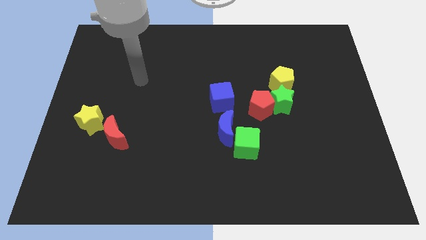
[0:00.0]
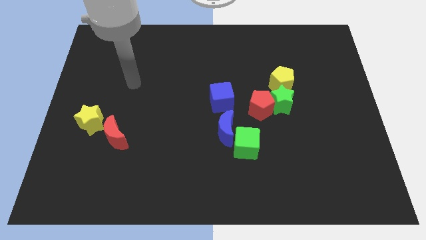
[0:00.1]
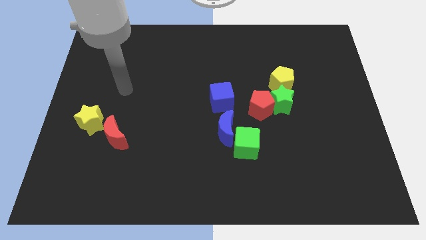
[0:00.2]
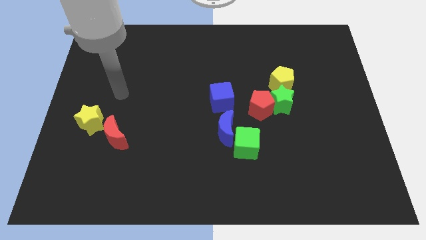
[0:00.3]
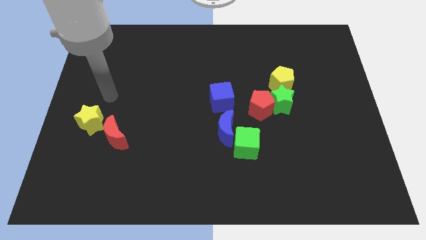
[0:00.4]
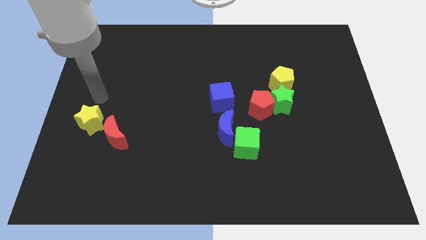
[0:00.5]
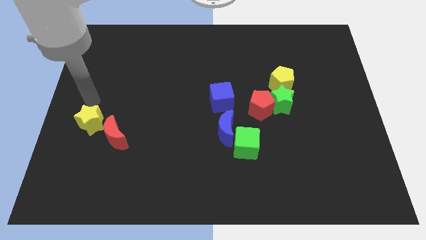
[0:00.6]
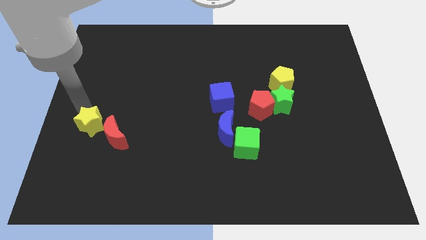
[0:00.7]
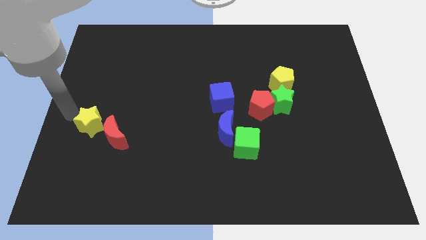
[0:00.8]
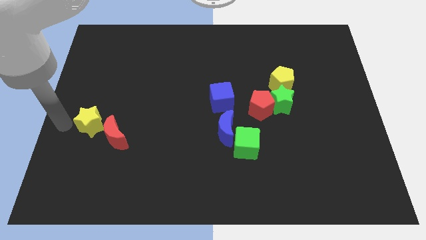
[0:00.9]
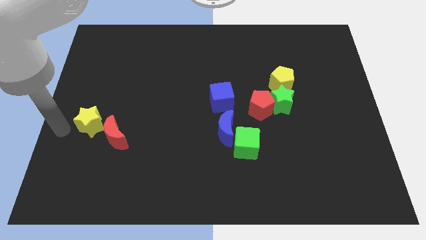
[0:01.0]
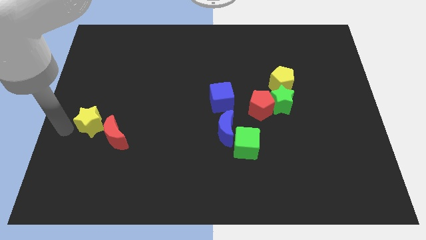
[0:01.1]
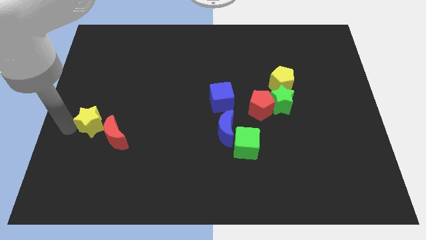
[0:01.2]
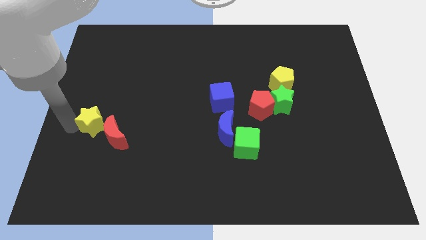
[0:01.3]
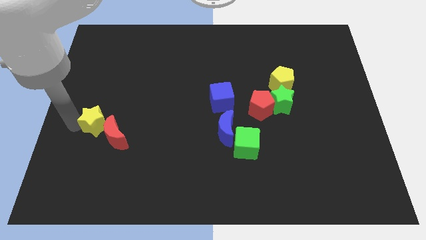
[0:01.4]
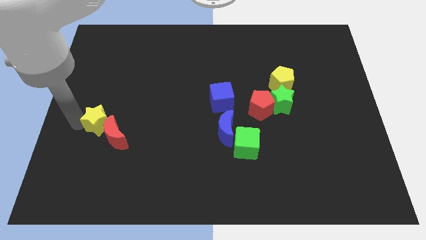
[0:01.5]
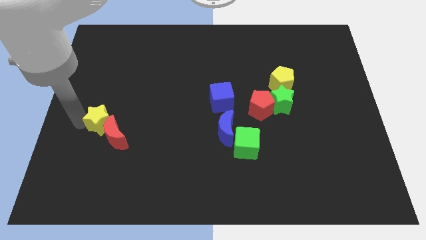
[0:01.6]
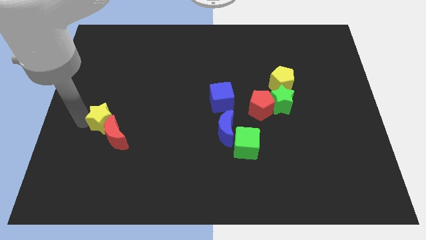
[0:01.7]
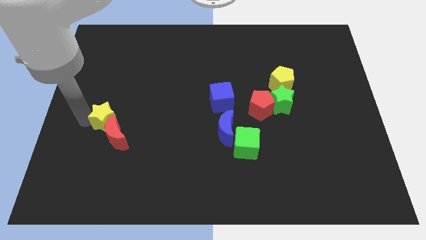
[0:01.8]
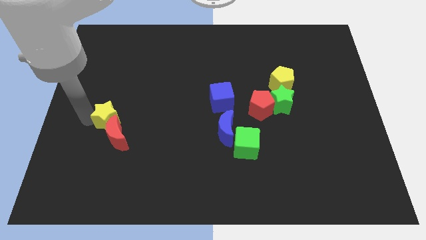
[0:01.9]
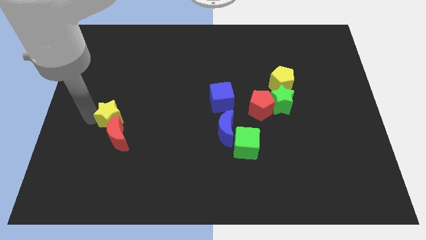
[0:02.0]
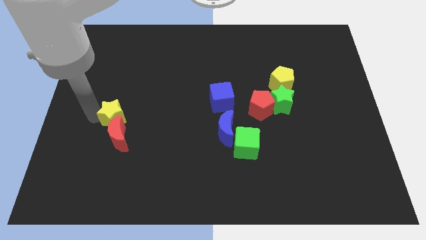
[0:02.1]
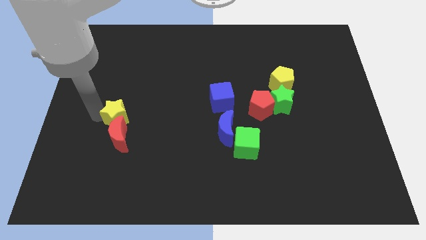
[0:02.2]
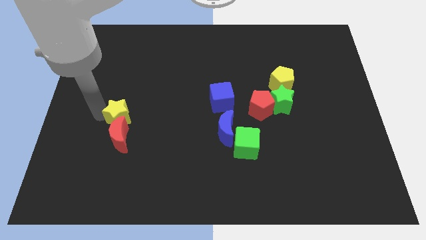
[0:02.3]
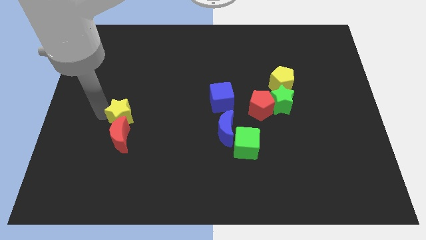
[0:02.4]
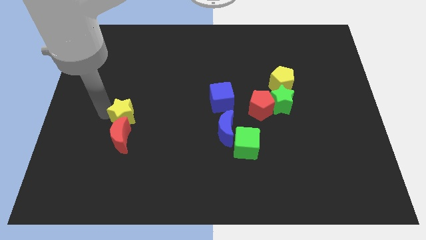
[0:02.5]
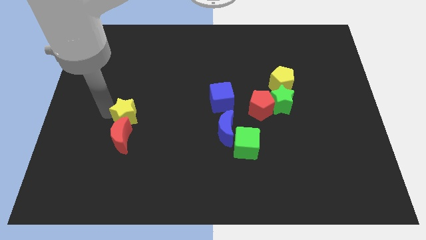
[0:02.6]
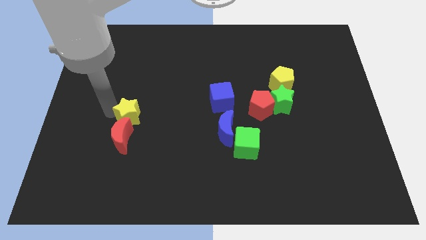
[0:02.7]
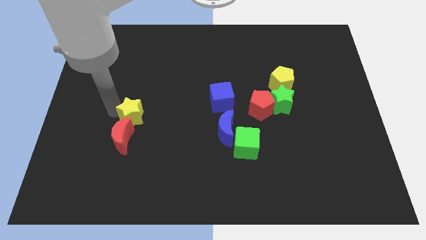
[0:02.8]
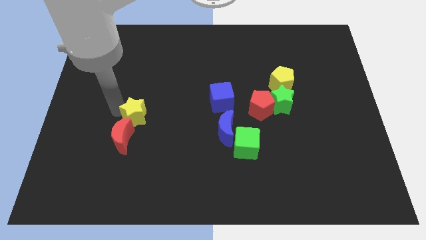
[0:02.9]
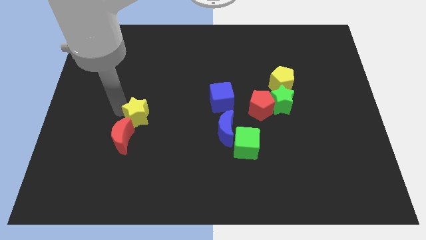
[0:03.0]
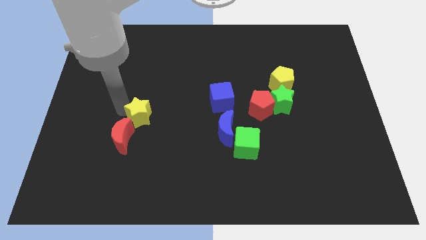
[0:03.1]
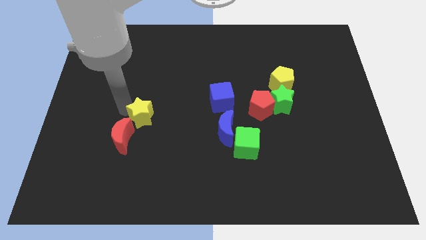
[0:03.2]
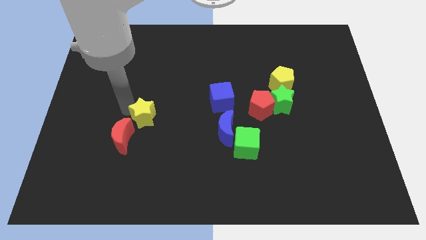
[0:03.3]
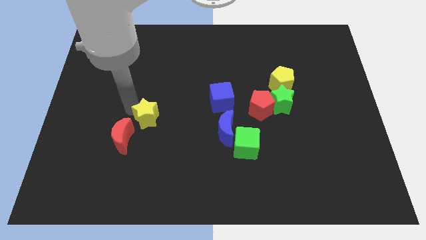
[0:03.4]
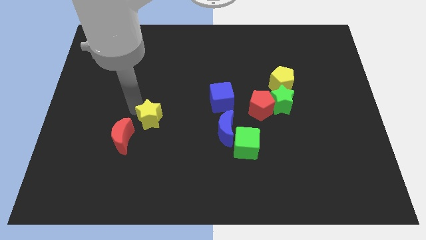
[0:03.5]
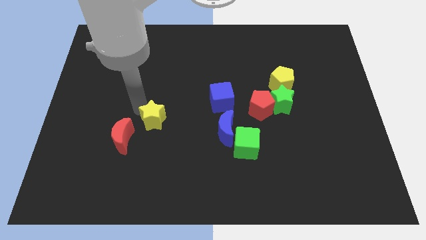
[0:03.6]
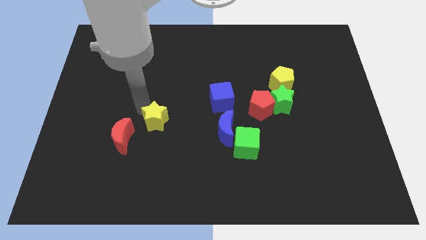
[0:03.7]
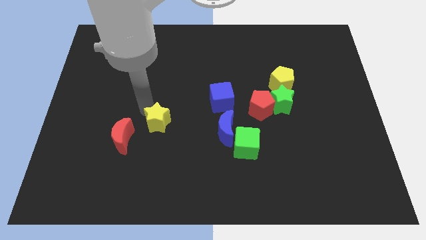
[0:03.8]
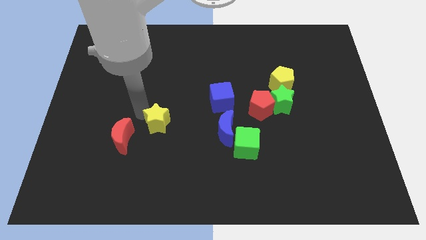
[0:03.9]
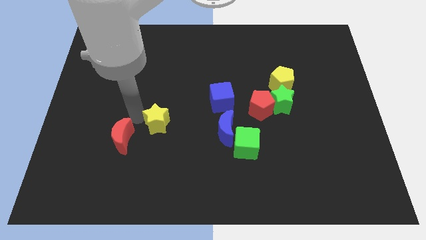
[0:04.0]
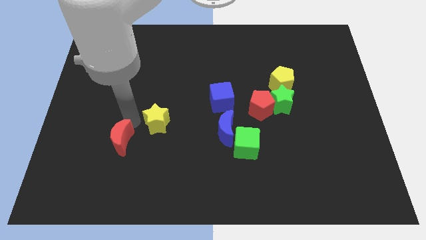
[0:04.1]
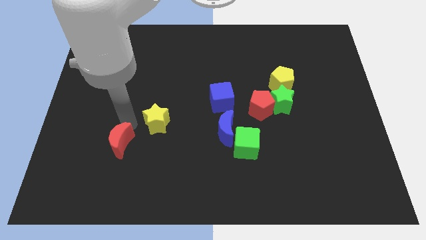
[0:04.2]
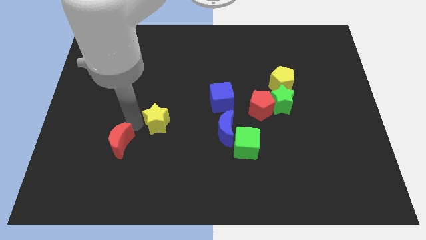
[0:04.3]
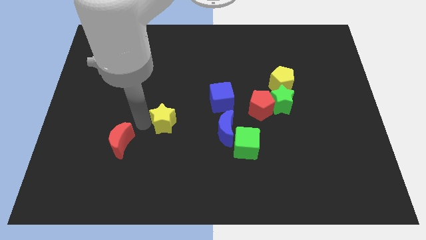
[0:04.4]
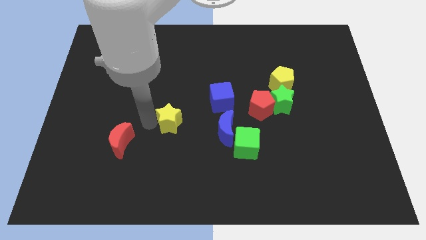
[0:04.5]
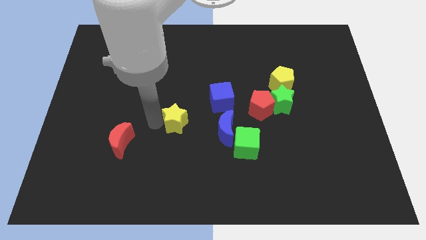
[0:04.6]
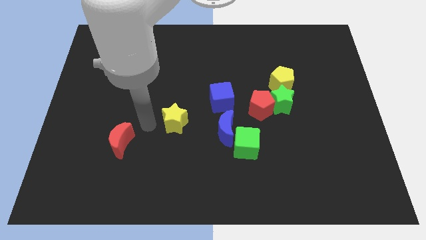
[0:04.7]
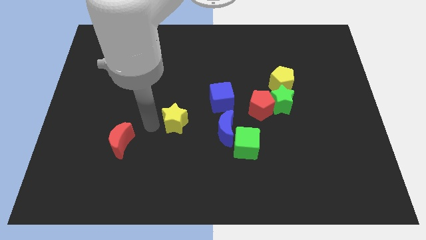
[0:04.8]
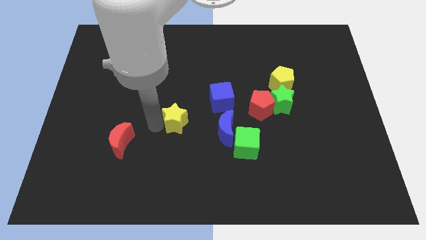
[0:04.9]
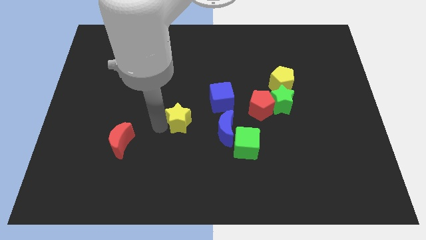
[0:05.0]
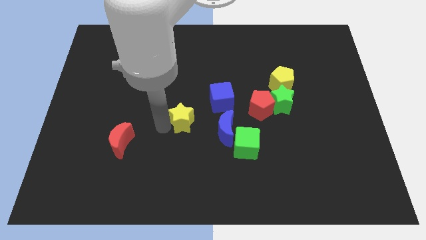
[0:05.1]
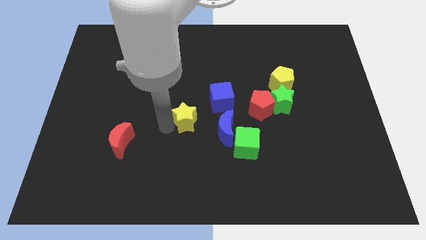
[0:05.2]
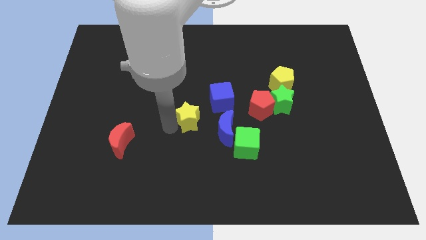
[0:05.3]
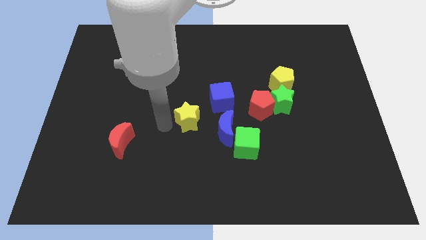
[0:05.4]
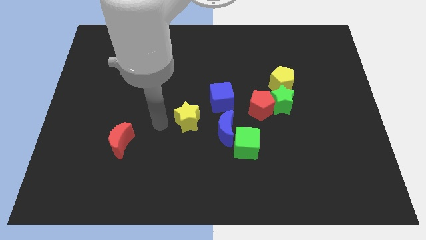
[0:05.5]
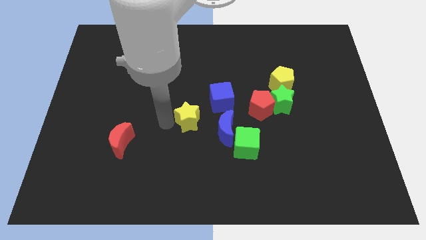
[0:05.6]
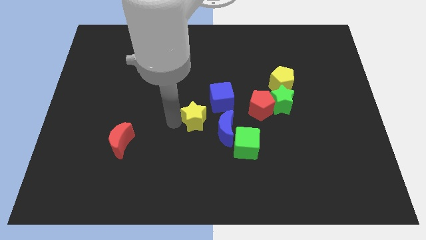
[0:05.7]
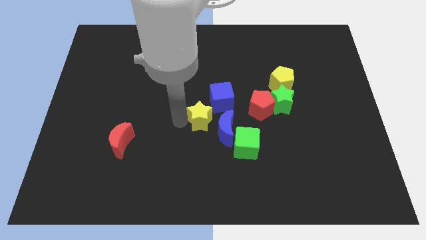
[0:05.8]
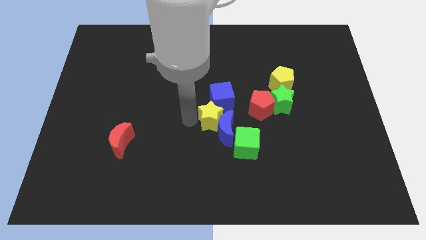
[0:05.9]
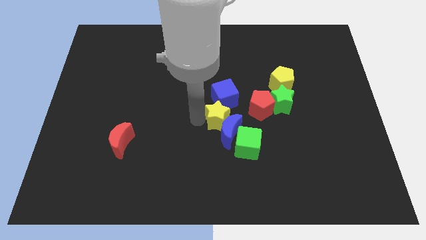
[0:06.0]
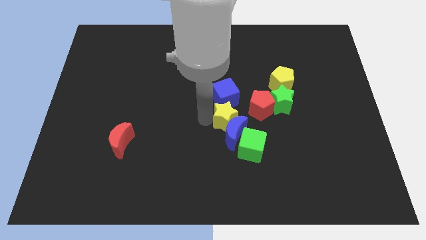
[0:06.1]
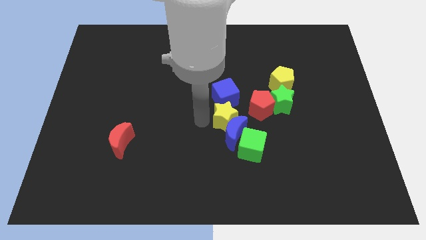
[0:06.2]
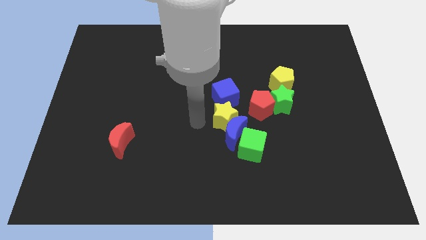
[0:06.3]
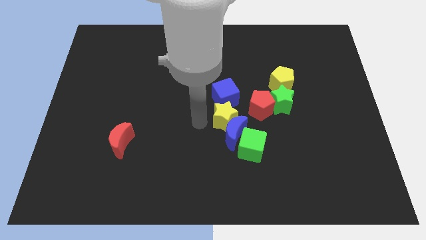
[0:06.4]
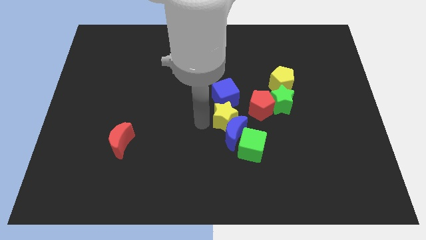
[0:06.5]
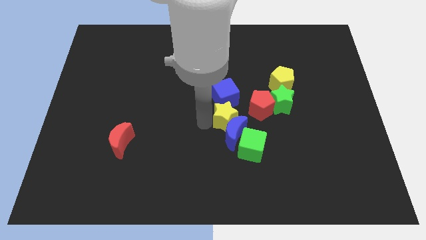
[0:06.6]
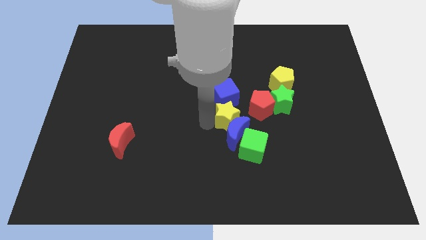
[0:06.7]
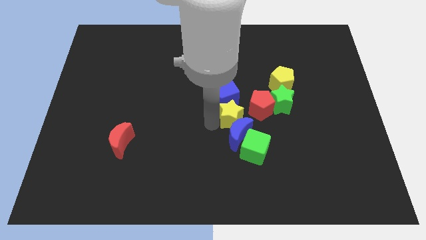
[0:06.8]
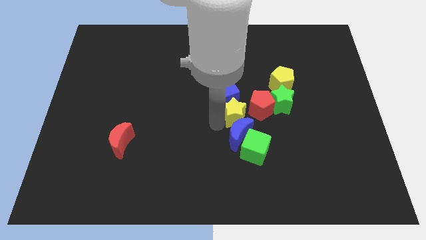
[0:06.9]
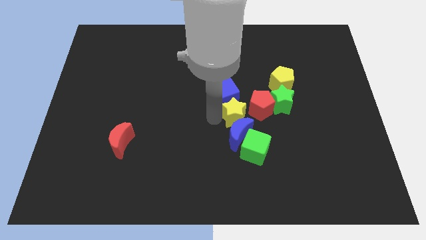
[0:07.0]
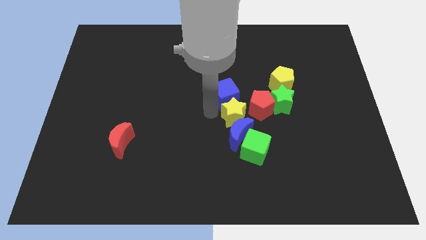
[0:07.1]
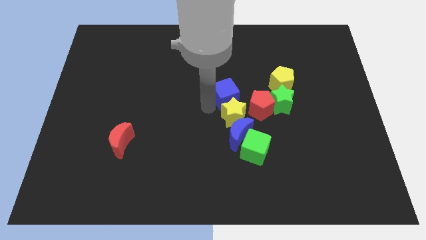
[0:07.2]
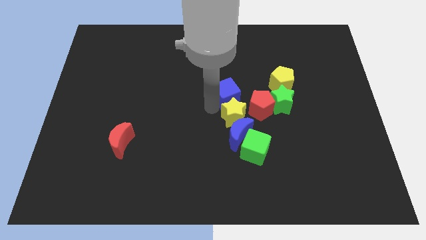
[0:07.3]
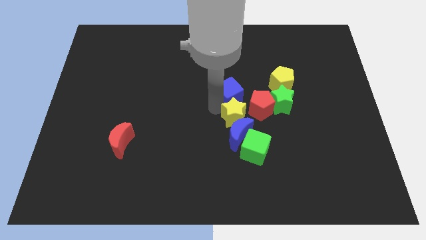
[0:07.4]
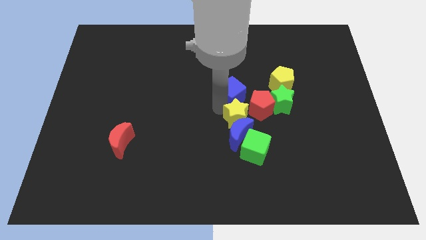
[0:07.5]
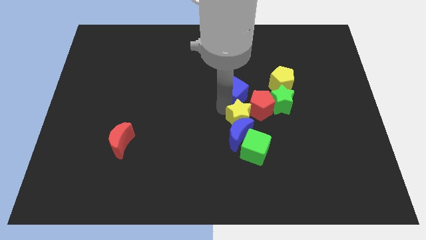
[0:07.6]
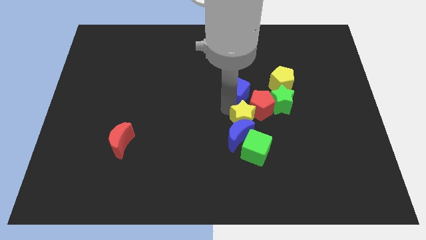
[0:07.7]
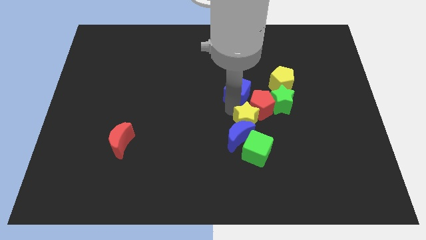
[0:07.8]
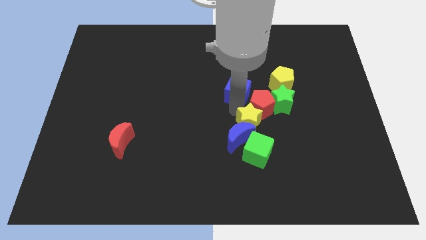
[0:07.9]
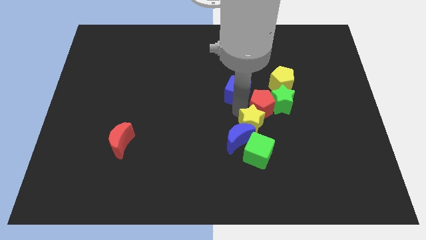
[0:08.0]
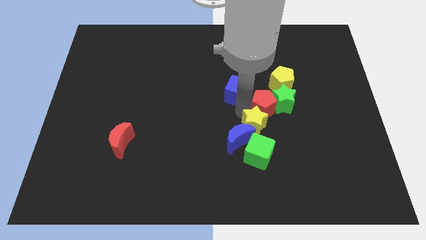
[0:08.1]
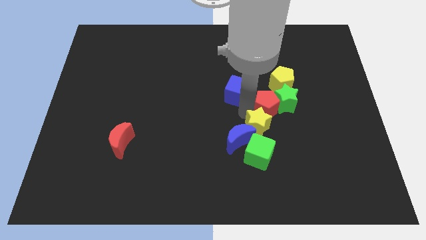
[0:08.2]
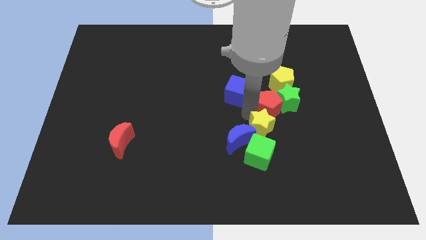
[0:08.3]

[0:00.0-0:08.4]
put the yellow star diagonally up and to the right of the green cube
